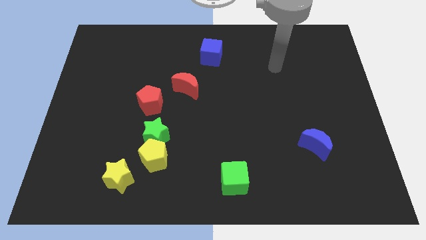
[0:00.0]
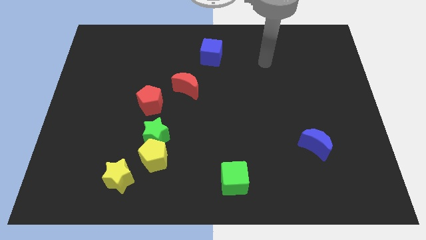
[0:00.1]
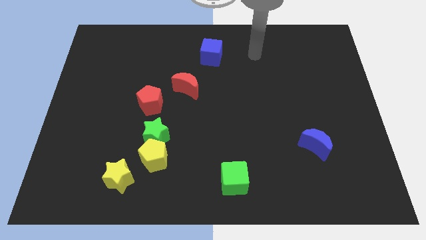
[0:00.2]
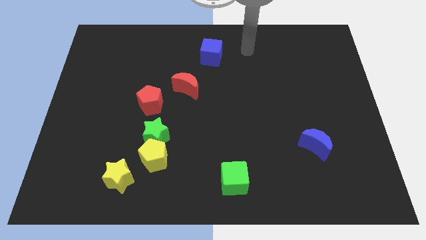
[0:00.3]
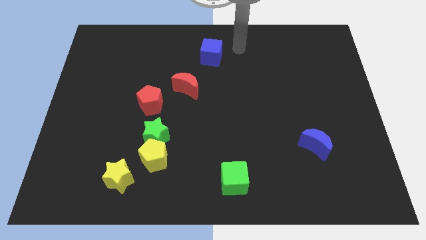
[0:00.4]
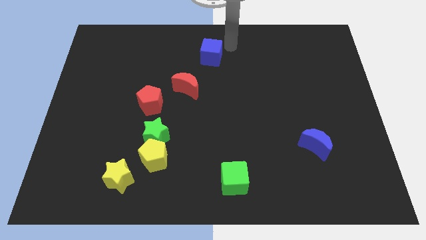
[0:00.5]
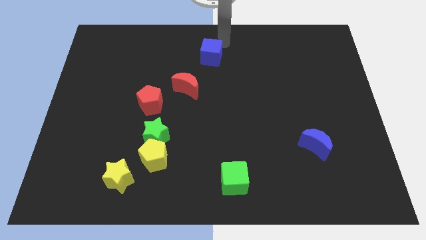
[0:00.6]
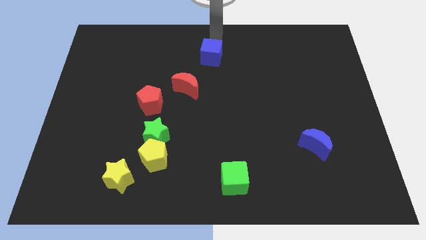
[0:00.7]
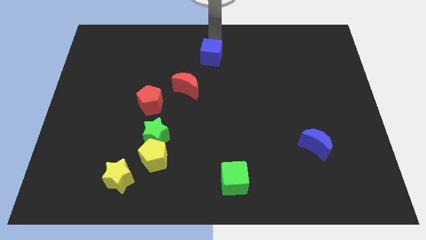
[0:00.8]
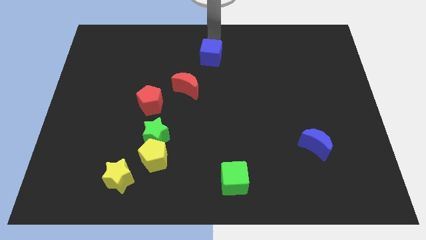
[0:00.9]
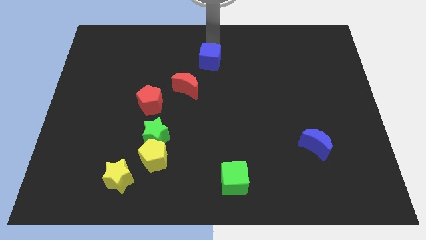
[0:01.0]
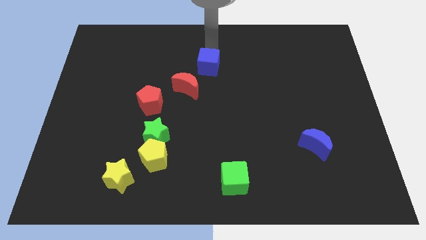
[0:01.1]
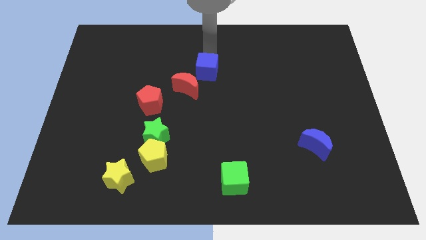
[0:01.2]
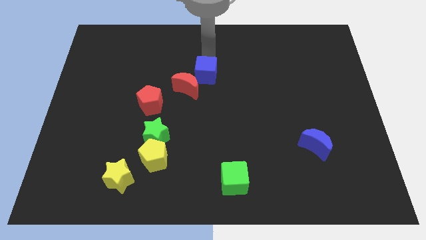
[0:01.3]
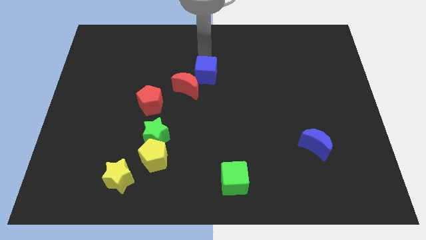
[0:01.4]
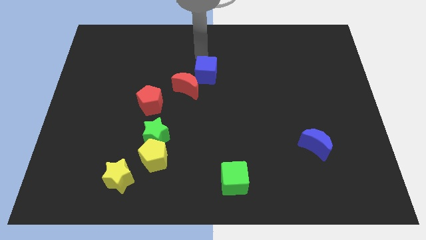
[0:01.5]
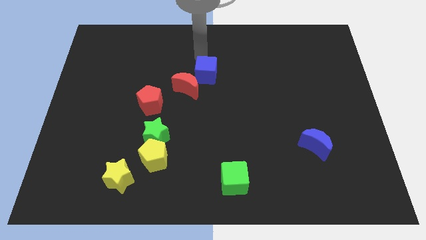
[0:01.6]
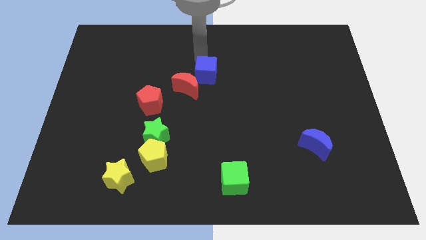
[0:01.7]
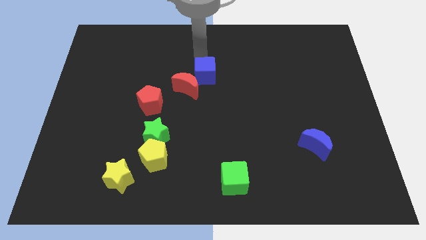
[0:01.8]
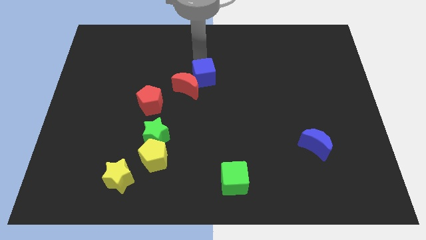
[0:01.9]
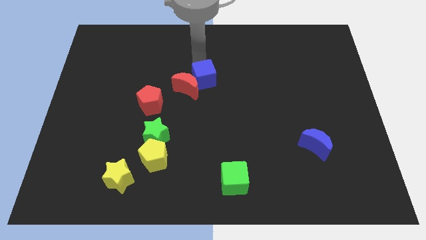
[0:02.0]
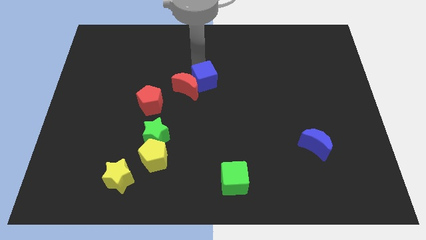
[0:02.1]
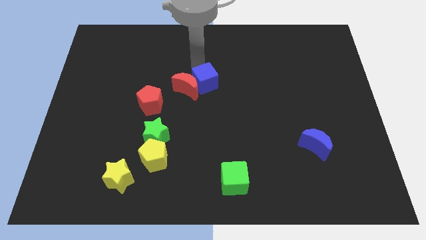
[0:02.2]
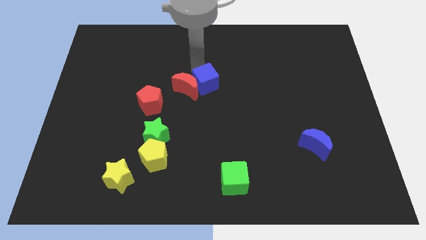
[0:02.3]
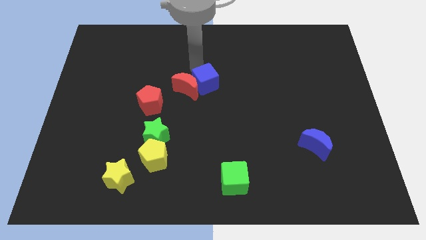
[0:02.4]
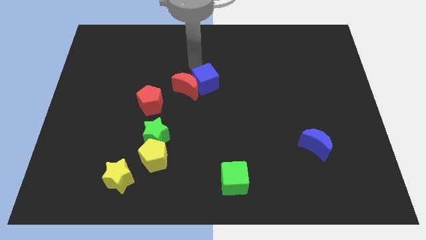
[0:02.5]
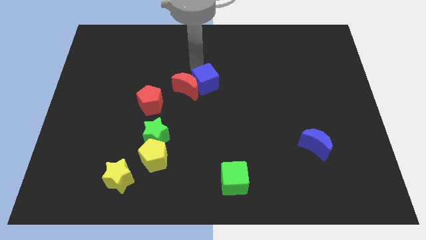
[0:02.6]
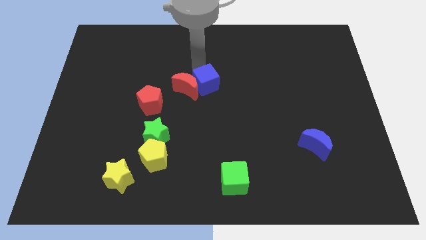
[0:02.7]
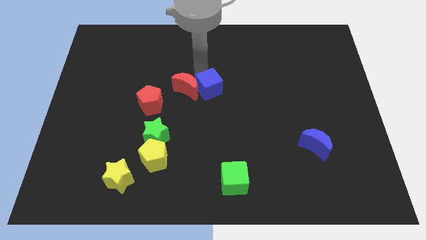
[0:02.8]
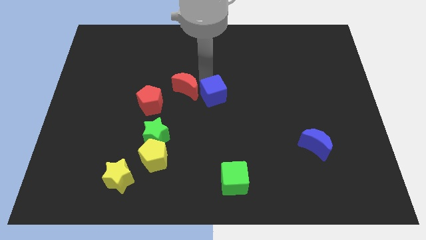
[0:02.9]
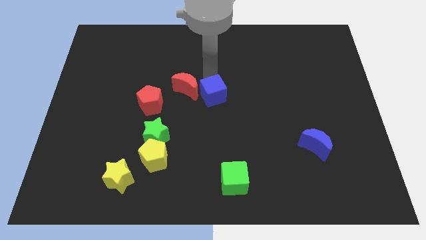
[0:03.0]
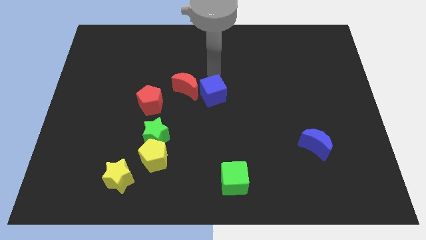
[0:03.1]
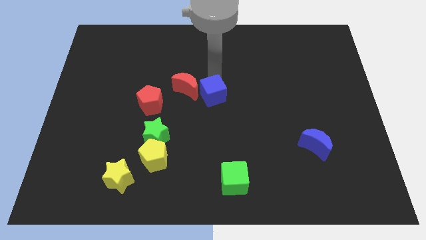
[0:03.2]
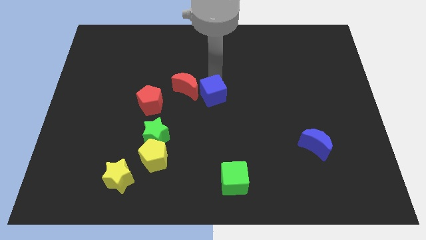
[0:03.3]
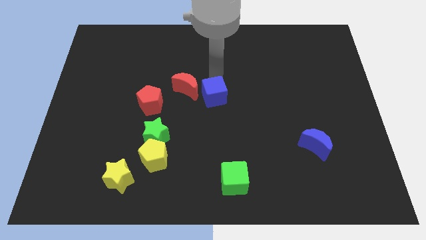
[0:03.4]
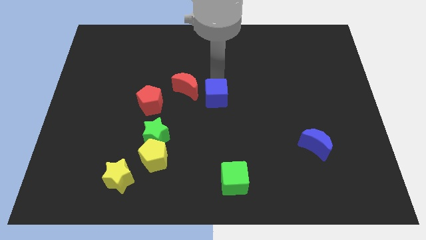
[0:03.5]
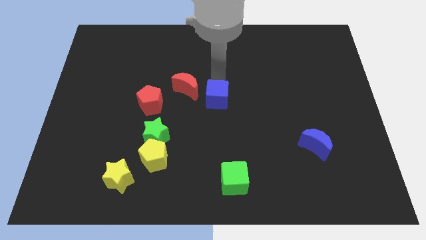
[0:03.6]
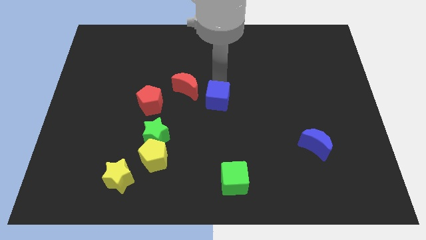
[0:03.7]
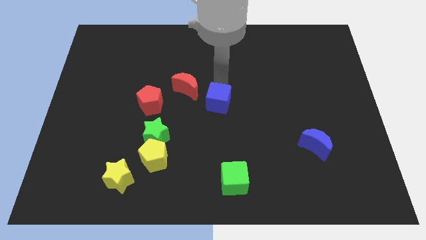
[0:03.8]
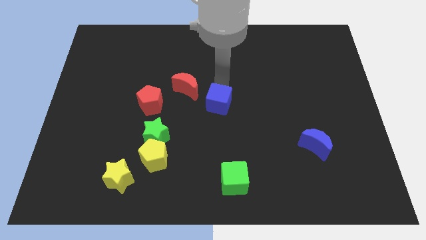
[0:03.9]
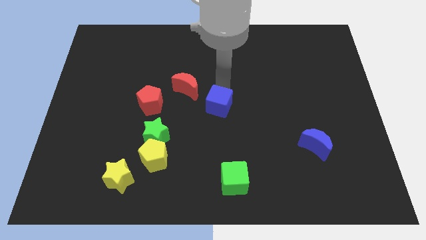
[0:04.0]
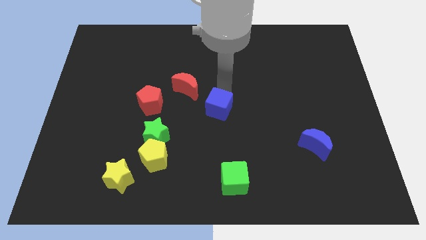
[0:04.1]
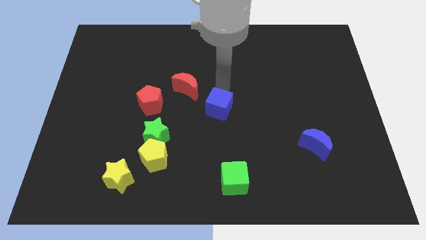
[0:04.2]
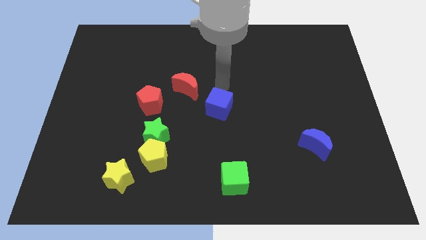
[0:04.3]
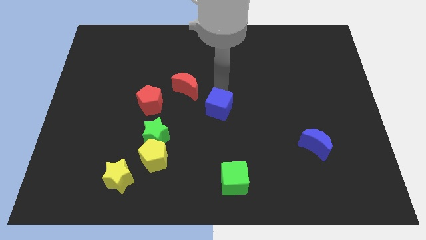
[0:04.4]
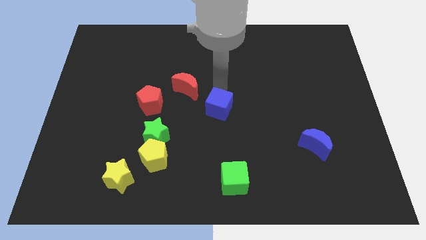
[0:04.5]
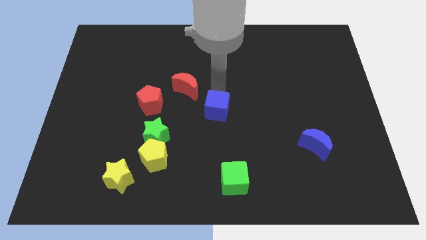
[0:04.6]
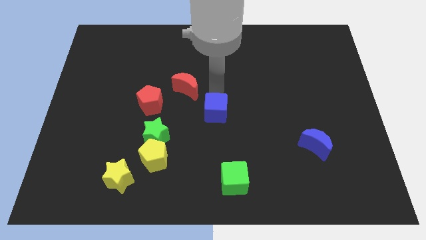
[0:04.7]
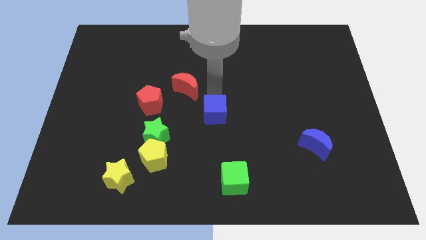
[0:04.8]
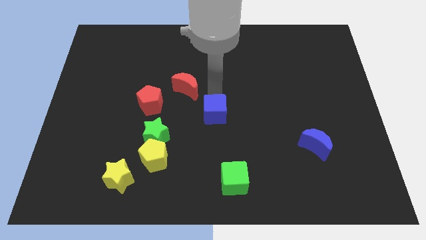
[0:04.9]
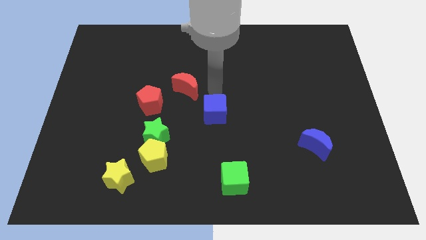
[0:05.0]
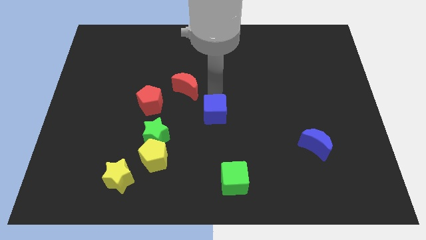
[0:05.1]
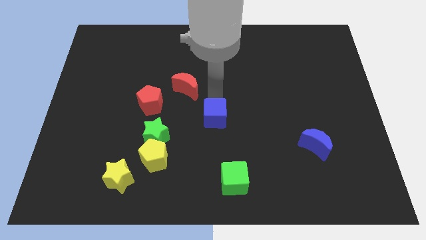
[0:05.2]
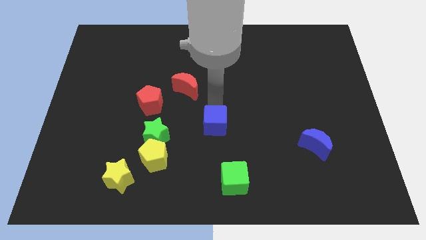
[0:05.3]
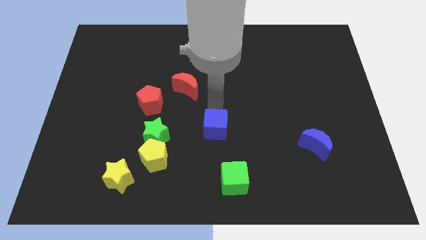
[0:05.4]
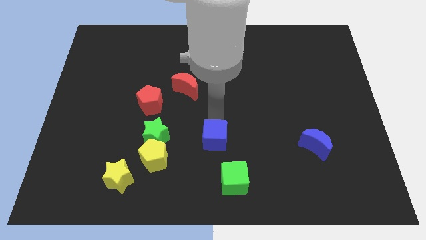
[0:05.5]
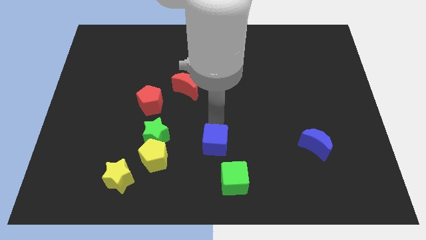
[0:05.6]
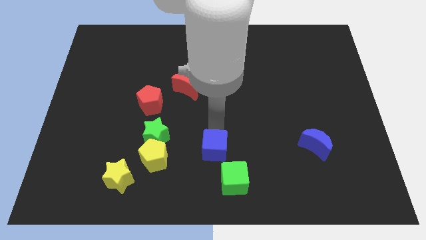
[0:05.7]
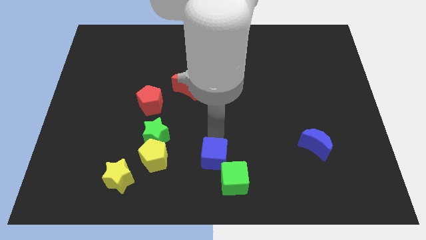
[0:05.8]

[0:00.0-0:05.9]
put the blue cube to the bottom
